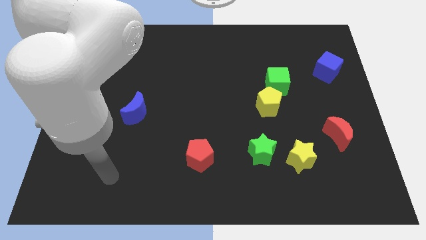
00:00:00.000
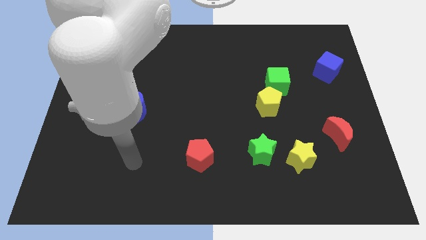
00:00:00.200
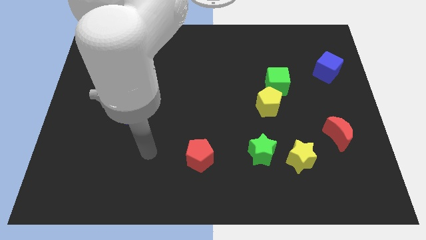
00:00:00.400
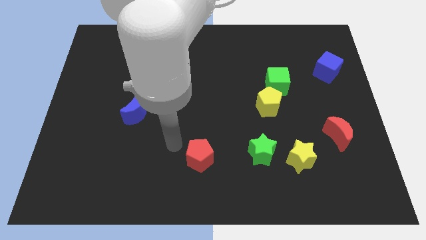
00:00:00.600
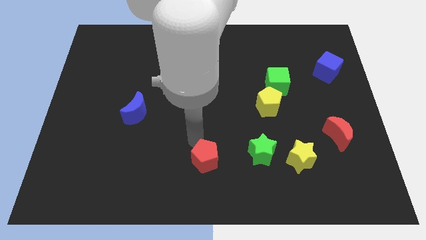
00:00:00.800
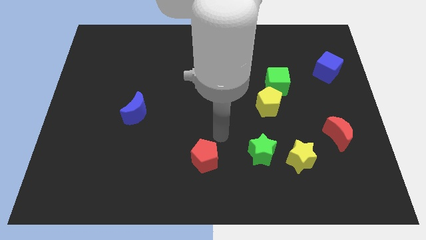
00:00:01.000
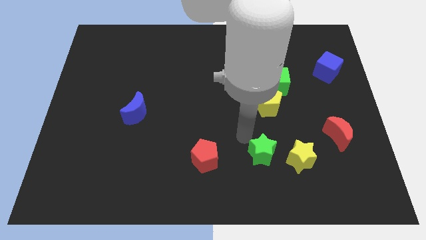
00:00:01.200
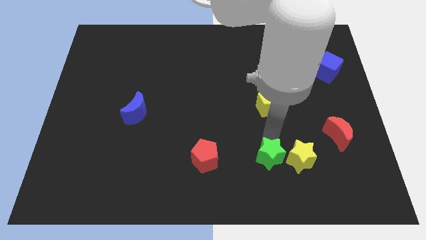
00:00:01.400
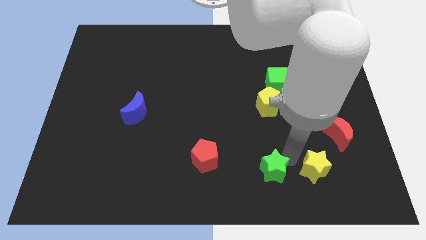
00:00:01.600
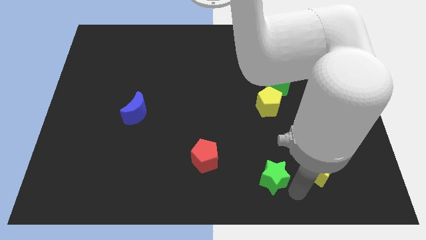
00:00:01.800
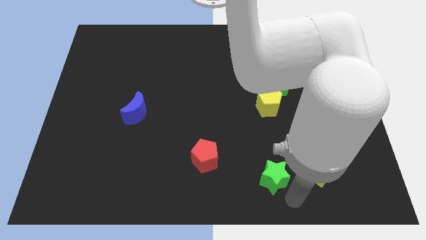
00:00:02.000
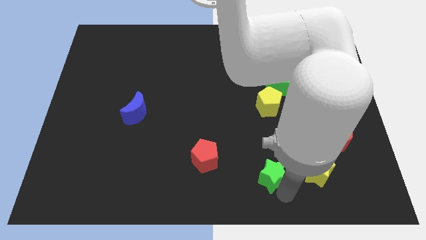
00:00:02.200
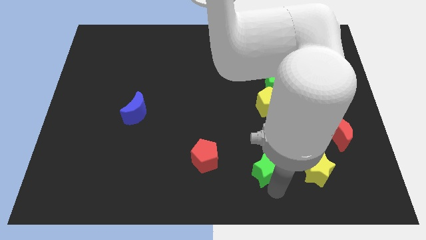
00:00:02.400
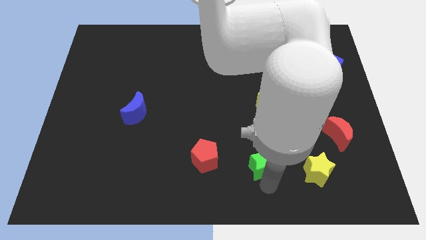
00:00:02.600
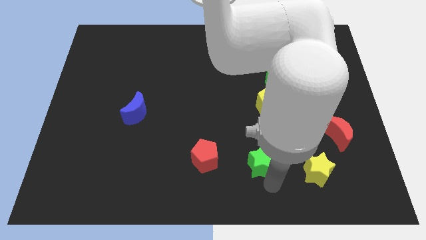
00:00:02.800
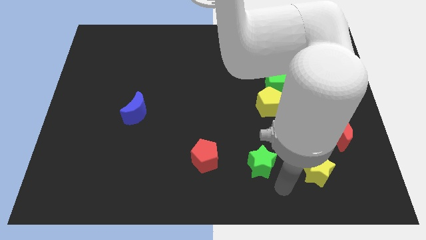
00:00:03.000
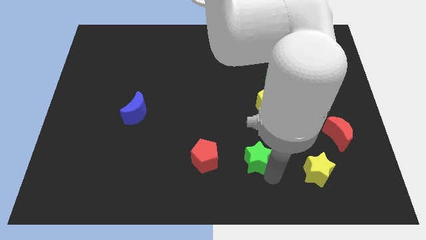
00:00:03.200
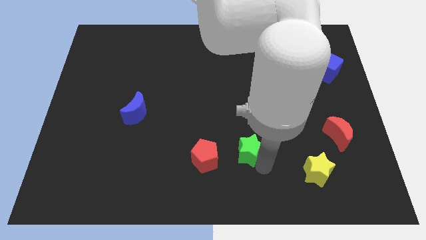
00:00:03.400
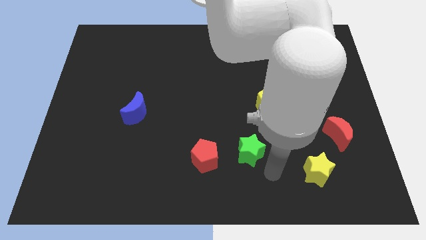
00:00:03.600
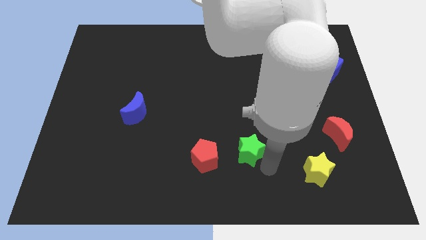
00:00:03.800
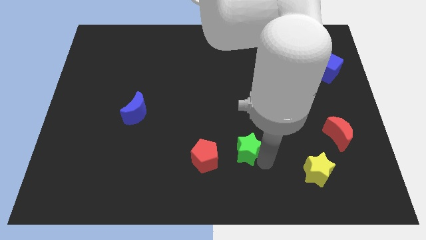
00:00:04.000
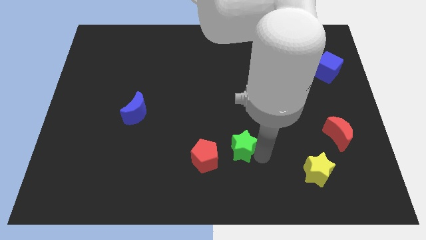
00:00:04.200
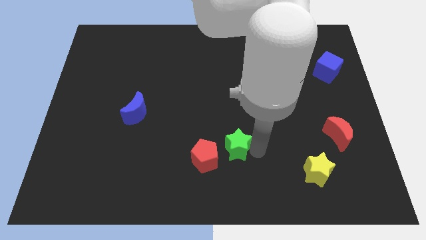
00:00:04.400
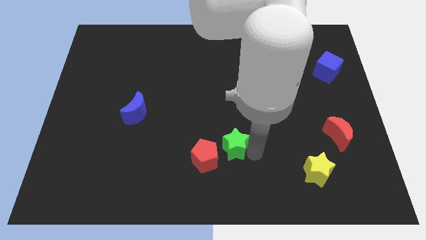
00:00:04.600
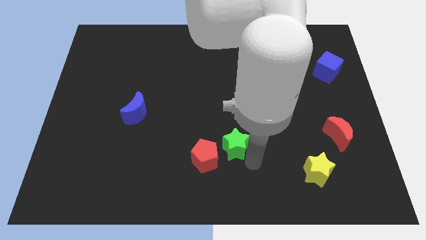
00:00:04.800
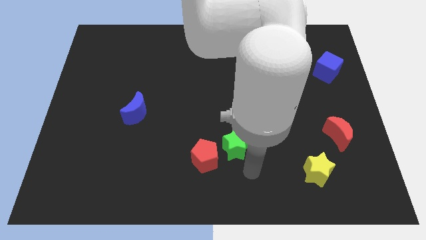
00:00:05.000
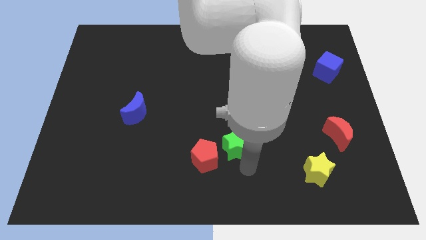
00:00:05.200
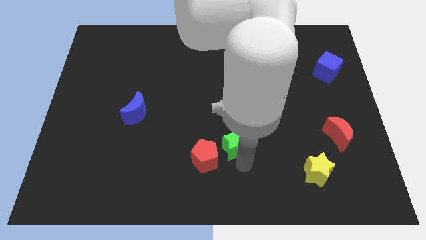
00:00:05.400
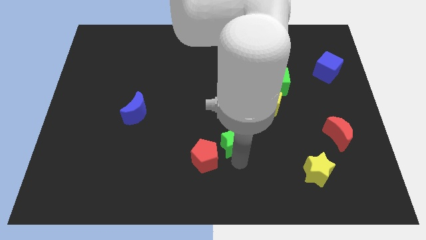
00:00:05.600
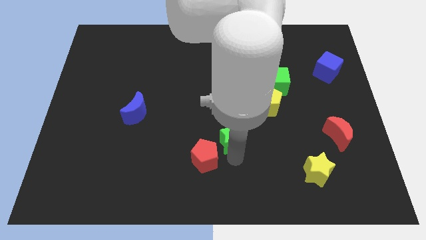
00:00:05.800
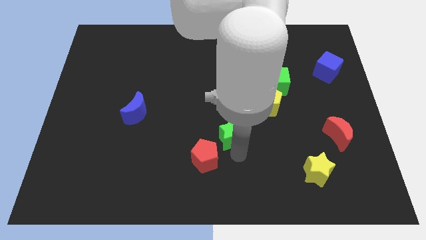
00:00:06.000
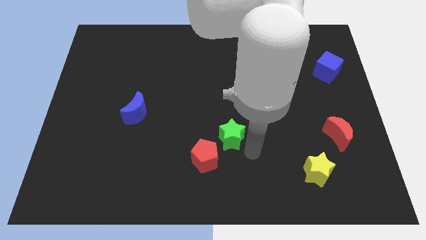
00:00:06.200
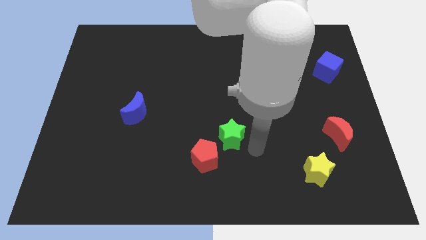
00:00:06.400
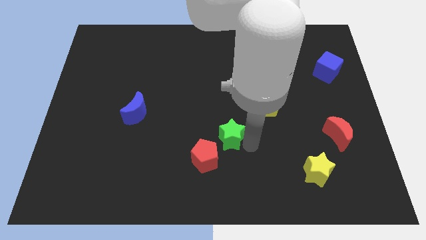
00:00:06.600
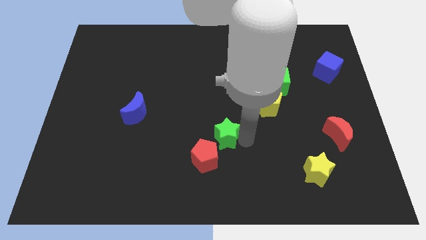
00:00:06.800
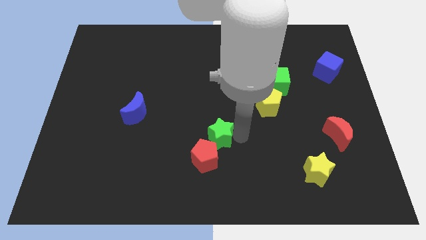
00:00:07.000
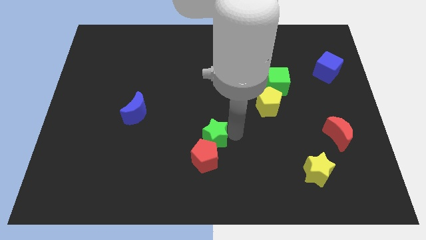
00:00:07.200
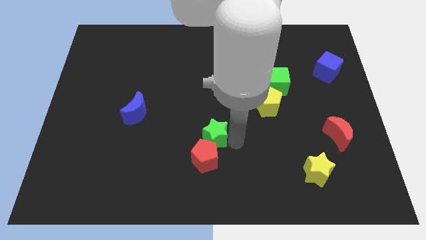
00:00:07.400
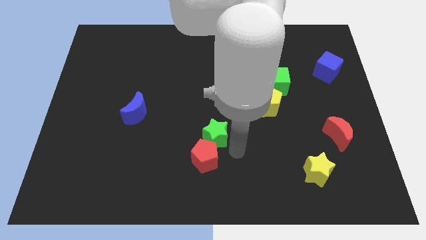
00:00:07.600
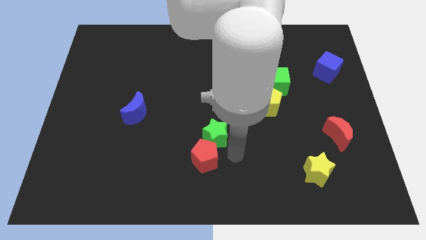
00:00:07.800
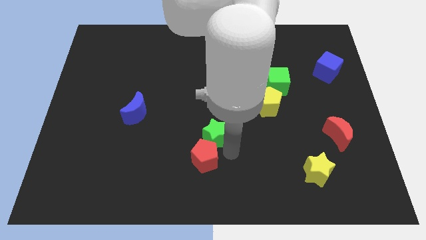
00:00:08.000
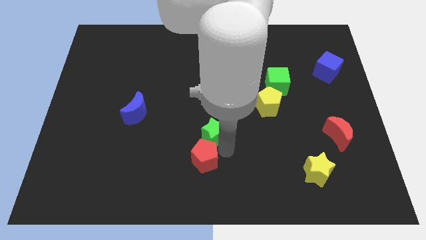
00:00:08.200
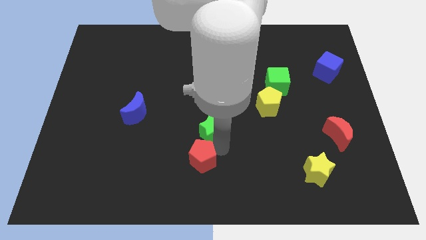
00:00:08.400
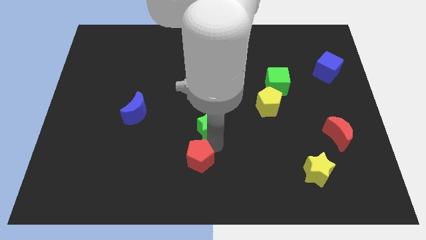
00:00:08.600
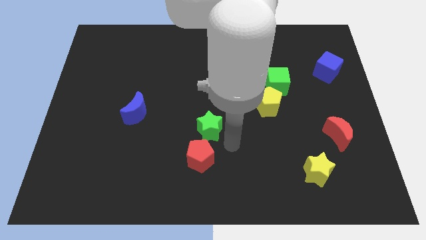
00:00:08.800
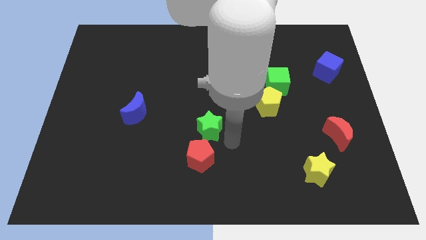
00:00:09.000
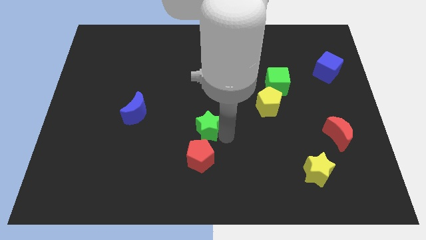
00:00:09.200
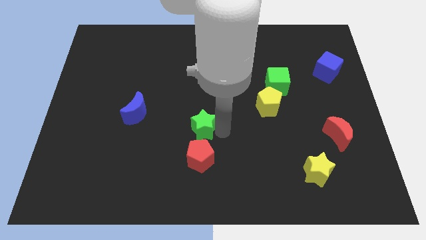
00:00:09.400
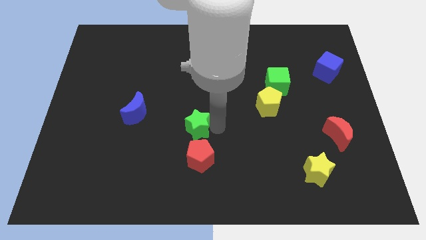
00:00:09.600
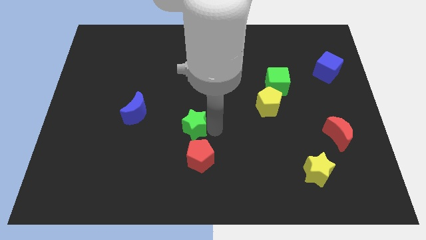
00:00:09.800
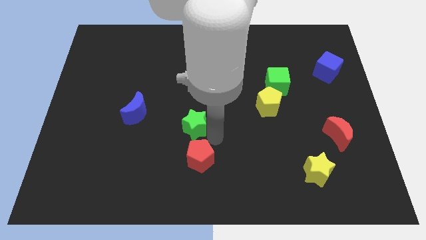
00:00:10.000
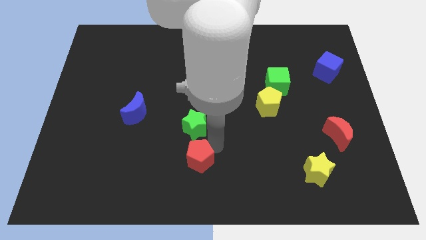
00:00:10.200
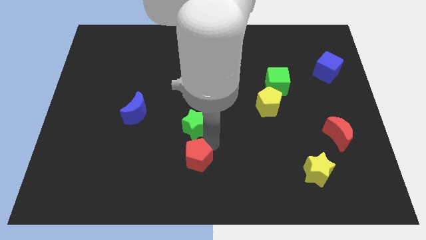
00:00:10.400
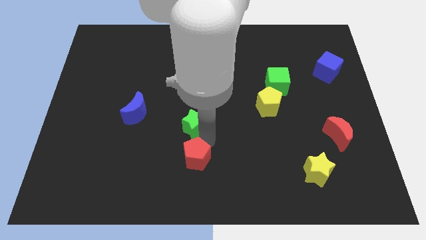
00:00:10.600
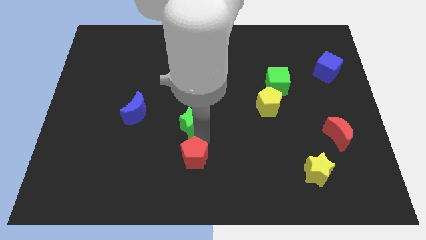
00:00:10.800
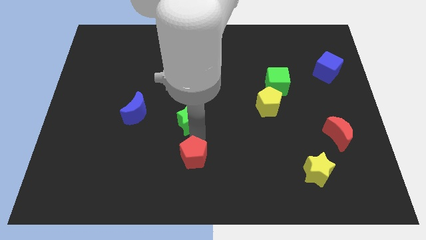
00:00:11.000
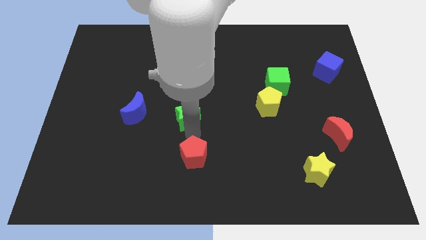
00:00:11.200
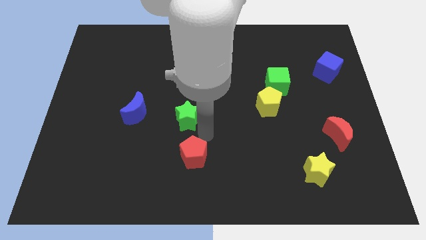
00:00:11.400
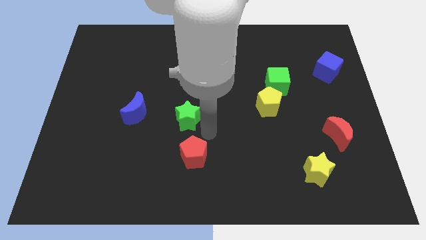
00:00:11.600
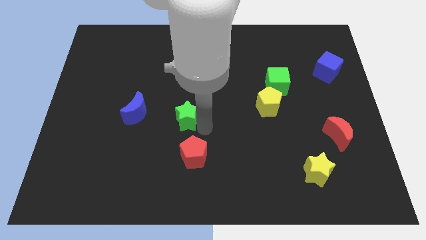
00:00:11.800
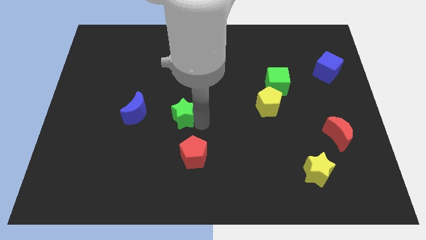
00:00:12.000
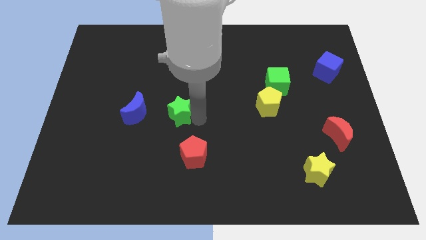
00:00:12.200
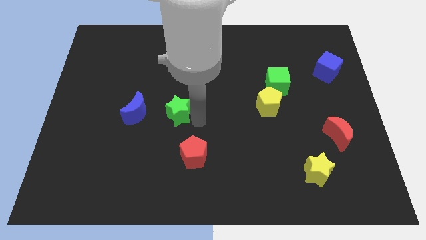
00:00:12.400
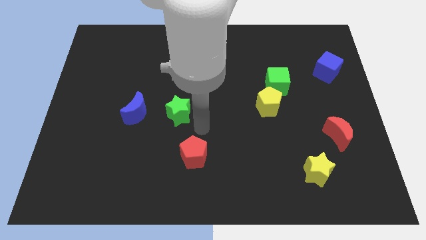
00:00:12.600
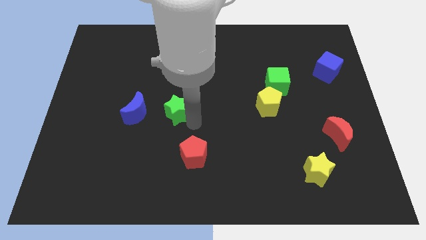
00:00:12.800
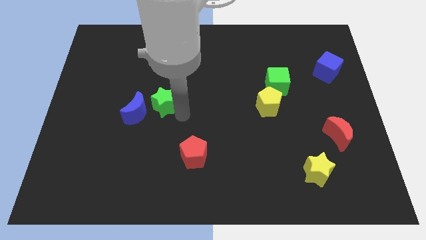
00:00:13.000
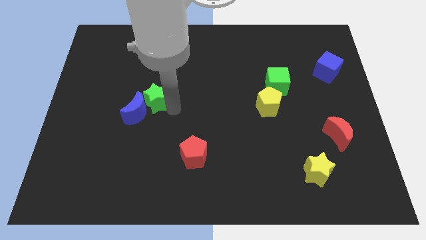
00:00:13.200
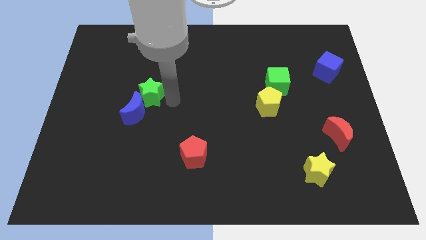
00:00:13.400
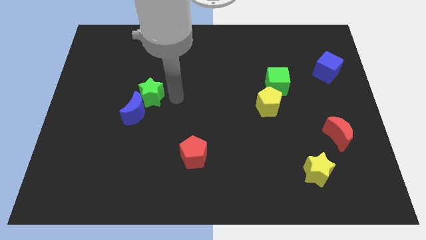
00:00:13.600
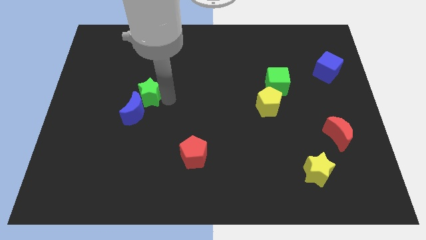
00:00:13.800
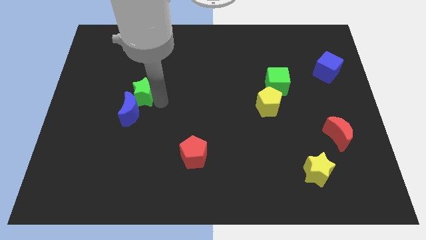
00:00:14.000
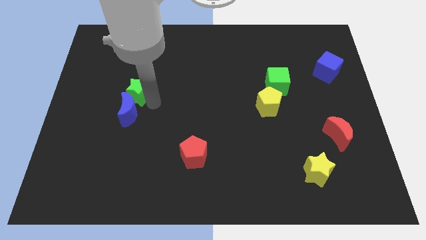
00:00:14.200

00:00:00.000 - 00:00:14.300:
move the green star diagonally up and to the left of the blue moon

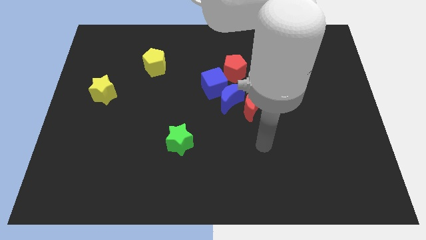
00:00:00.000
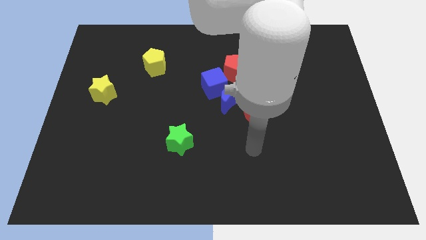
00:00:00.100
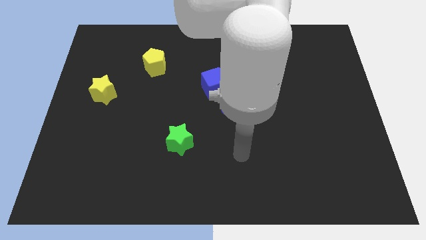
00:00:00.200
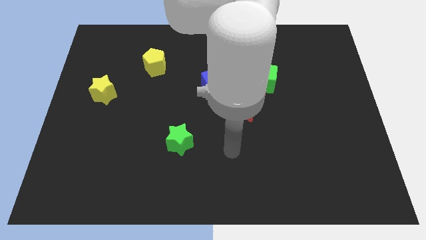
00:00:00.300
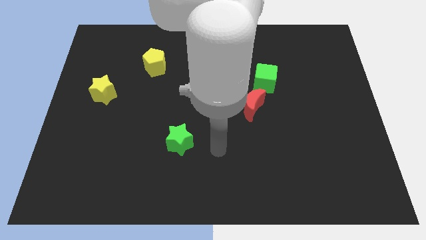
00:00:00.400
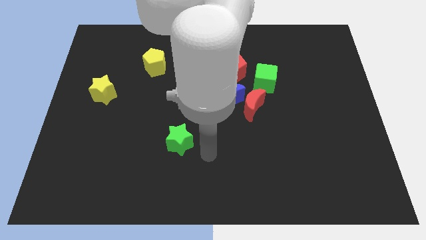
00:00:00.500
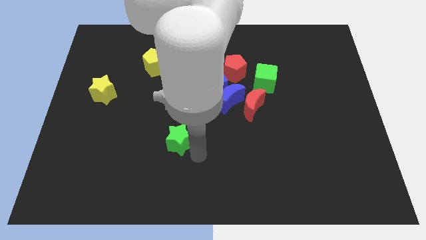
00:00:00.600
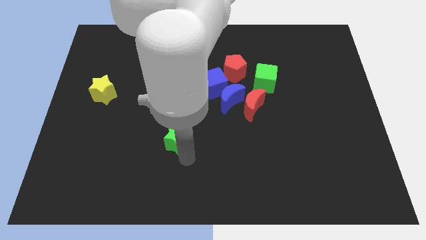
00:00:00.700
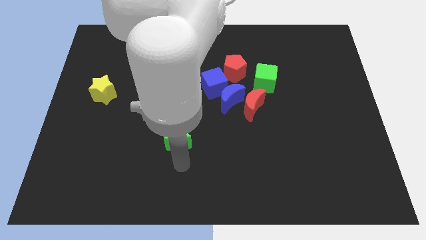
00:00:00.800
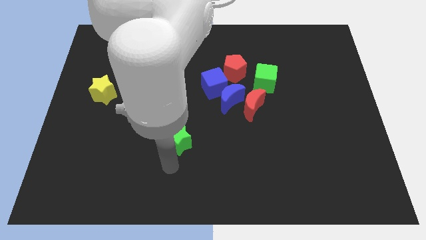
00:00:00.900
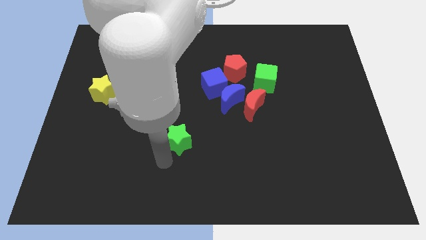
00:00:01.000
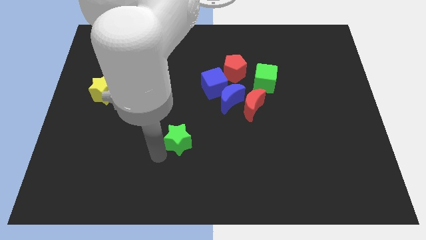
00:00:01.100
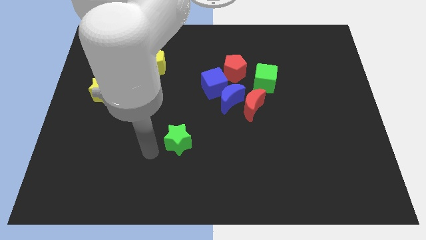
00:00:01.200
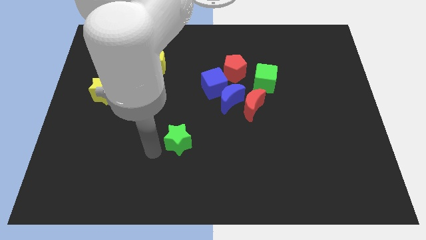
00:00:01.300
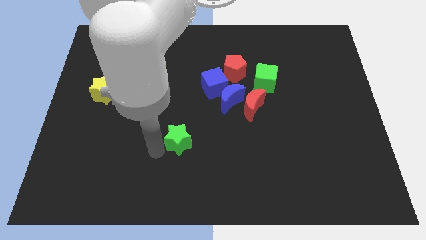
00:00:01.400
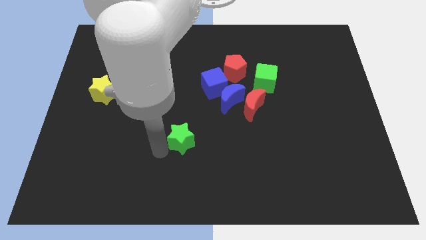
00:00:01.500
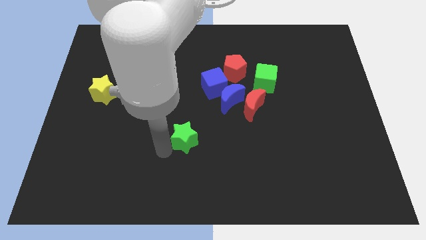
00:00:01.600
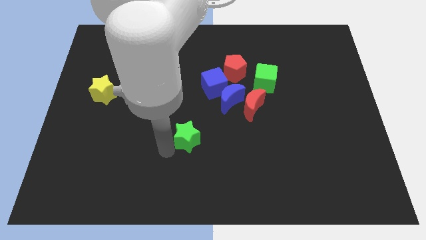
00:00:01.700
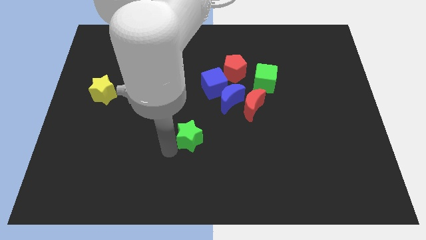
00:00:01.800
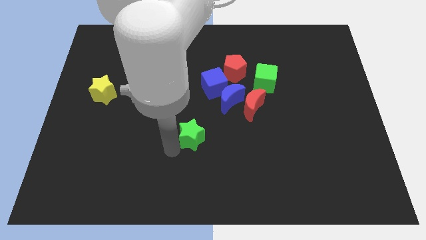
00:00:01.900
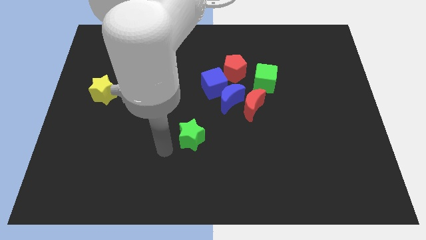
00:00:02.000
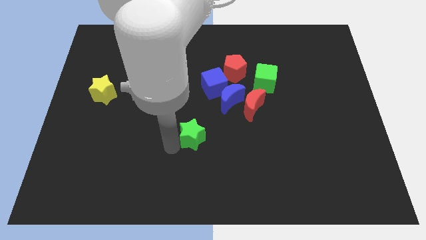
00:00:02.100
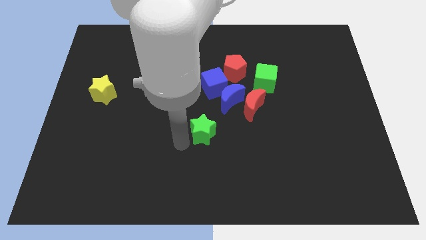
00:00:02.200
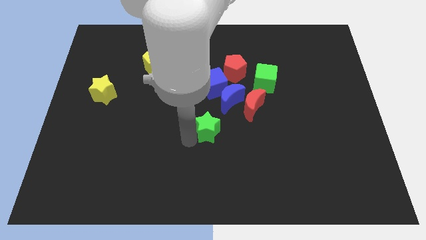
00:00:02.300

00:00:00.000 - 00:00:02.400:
move the green star diagonally down and to the left of the red moon
